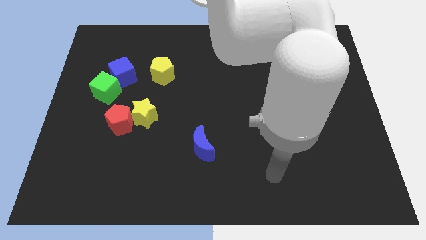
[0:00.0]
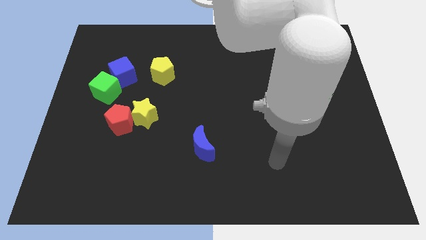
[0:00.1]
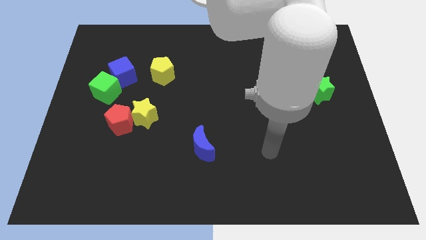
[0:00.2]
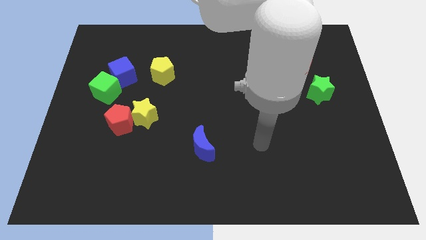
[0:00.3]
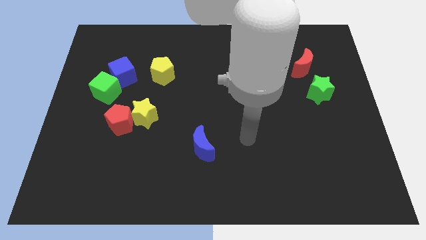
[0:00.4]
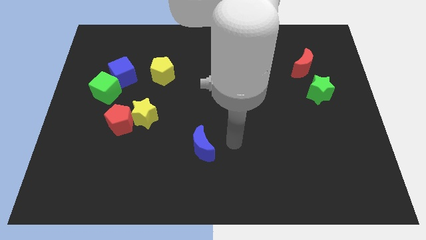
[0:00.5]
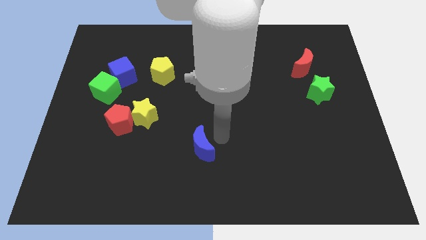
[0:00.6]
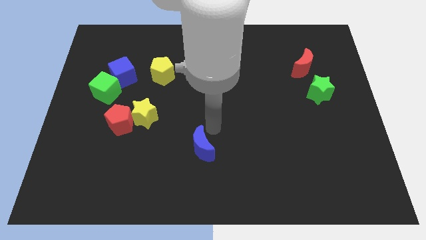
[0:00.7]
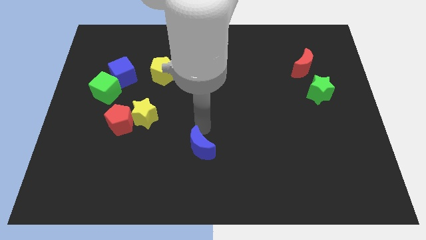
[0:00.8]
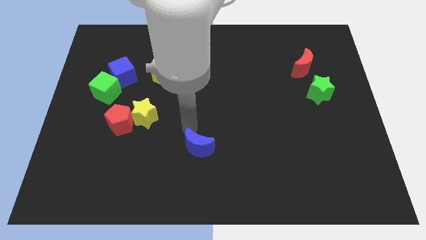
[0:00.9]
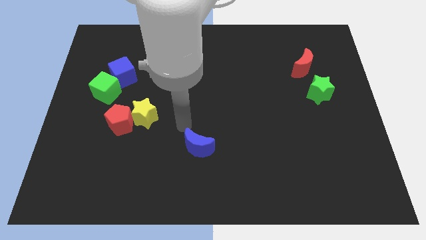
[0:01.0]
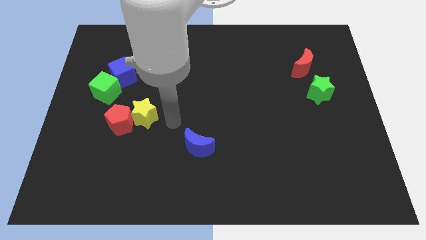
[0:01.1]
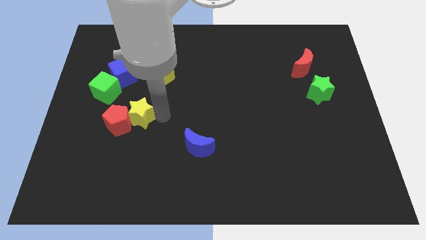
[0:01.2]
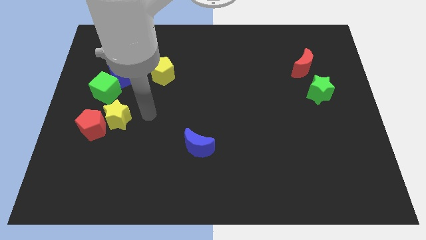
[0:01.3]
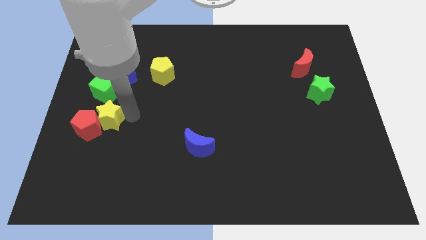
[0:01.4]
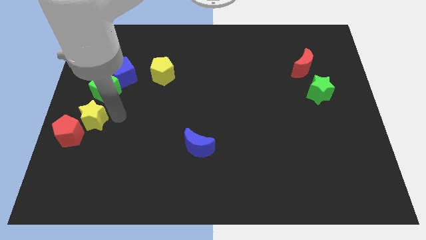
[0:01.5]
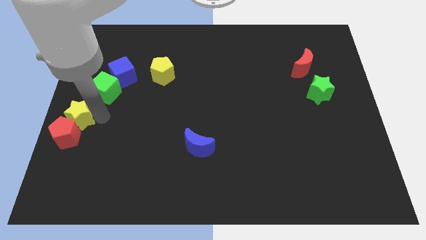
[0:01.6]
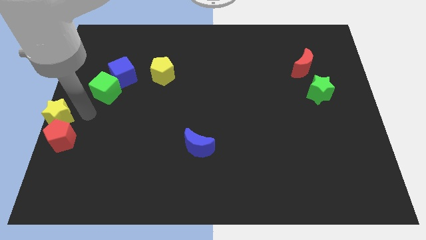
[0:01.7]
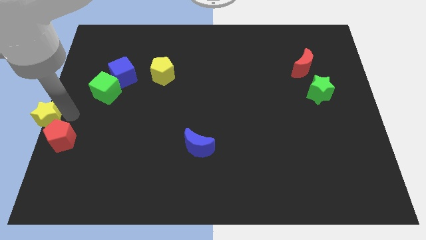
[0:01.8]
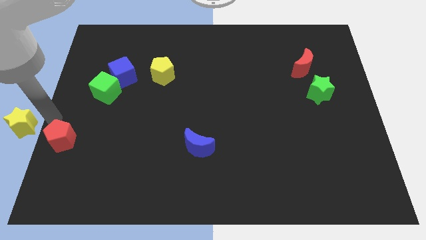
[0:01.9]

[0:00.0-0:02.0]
pull the red pentagon apart from the yellow star

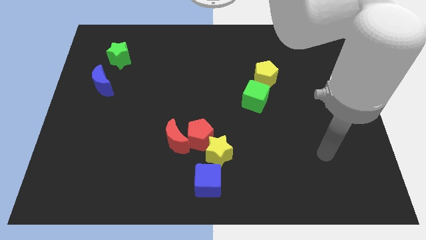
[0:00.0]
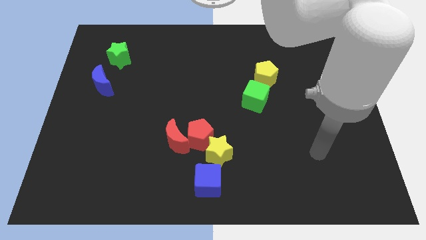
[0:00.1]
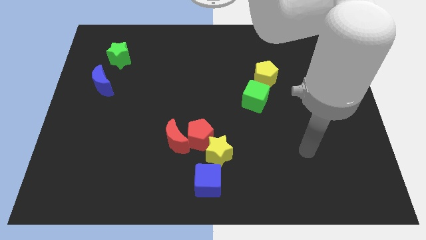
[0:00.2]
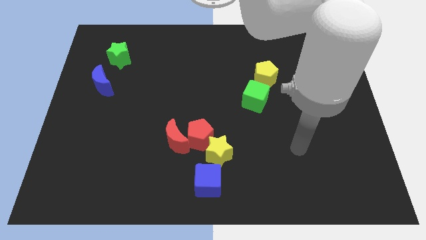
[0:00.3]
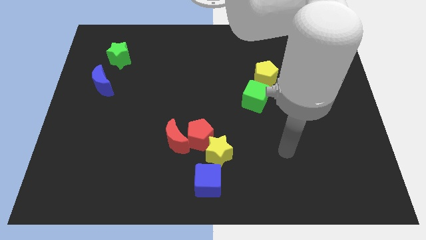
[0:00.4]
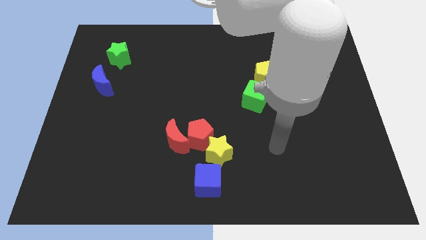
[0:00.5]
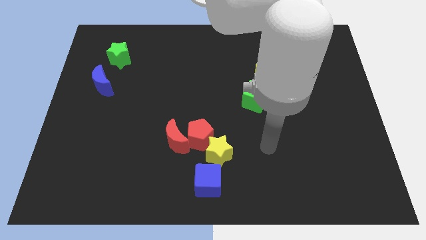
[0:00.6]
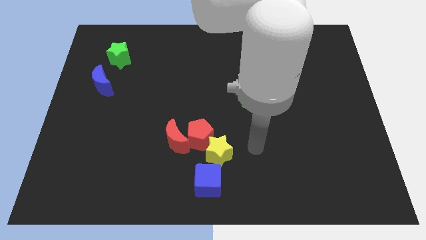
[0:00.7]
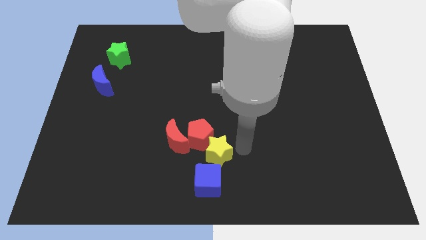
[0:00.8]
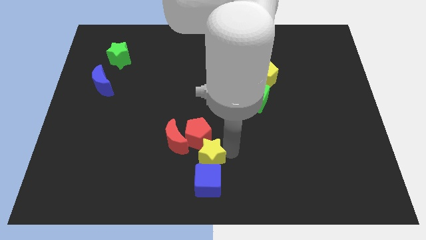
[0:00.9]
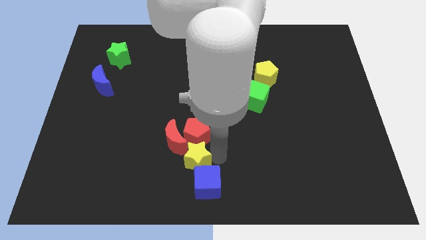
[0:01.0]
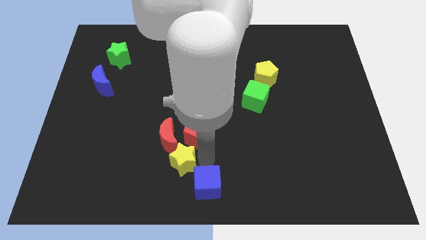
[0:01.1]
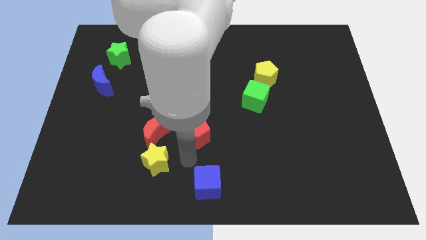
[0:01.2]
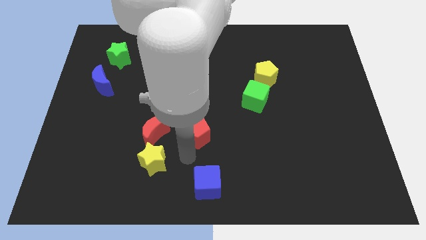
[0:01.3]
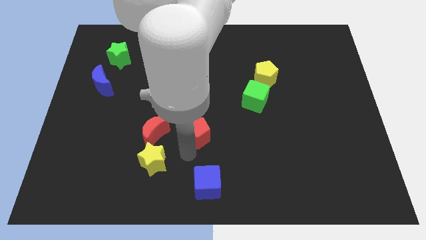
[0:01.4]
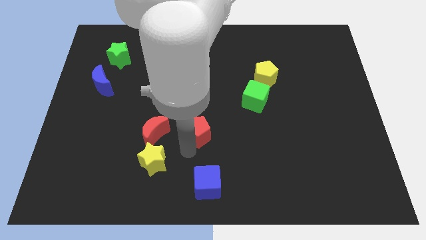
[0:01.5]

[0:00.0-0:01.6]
pull the red pentagon apart from the red moon and yellow star

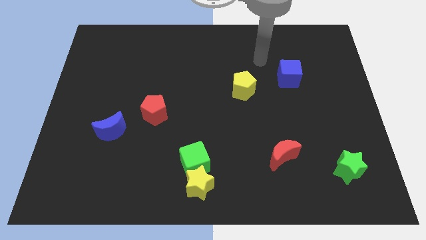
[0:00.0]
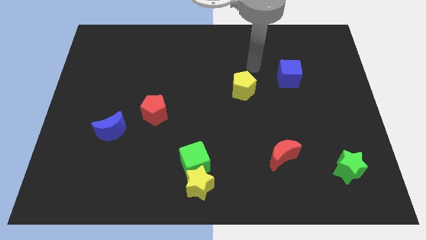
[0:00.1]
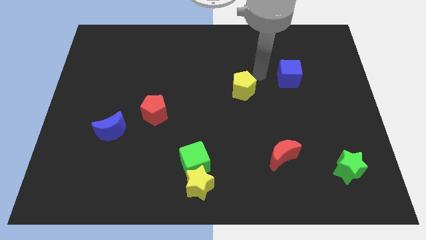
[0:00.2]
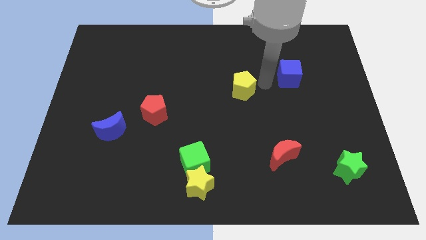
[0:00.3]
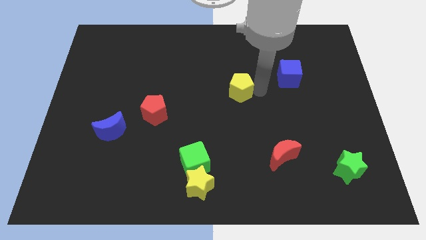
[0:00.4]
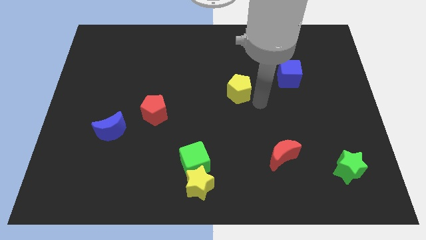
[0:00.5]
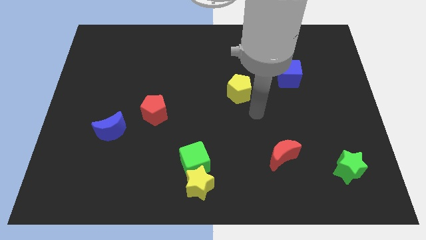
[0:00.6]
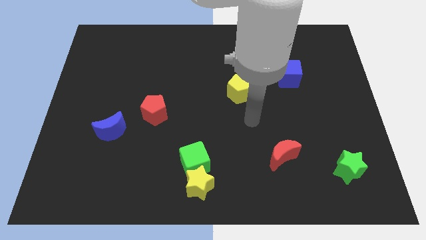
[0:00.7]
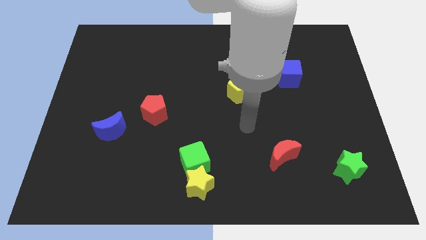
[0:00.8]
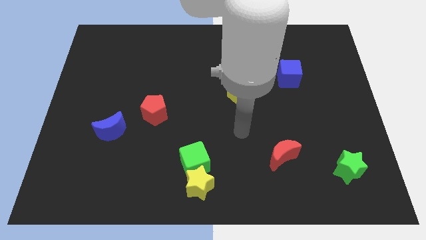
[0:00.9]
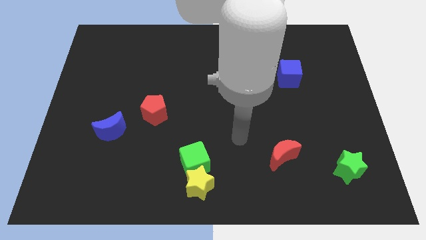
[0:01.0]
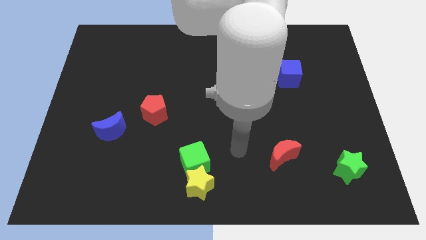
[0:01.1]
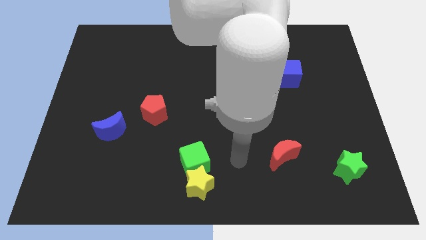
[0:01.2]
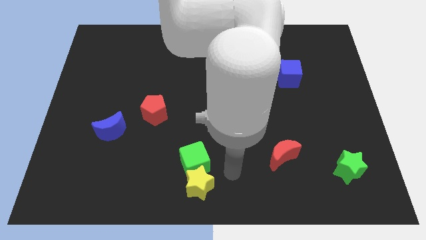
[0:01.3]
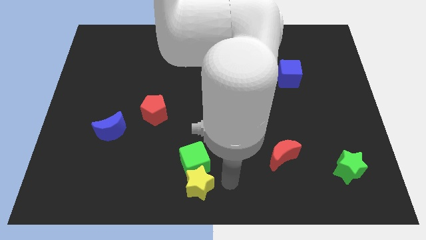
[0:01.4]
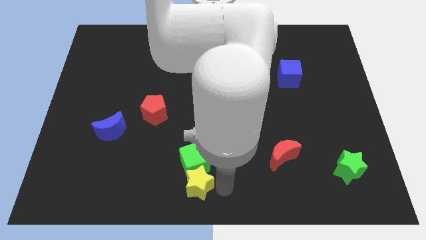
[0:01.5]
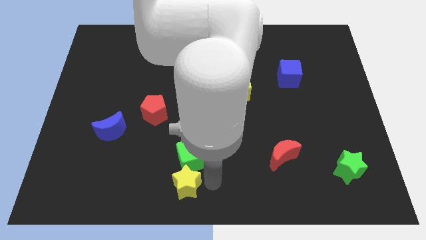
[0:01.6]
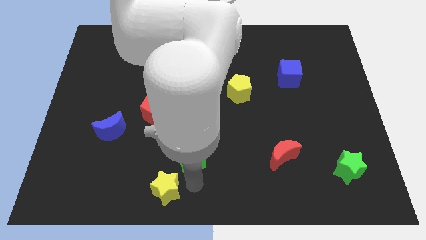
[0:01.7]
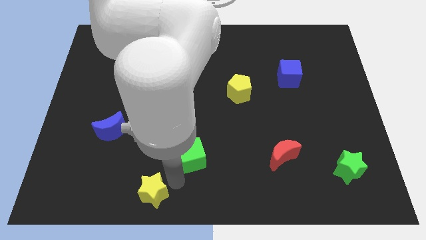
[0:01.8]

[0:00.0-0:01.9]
move the green cube away from the yellow star

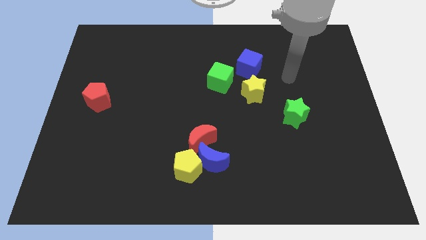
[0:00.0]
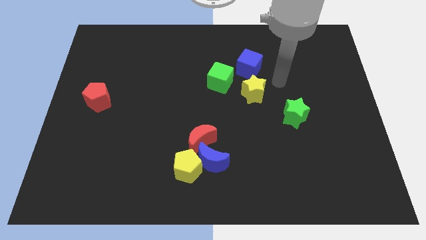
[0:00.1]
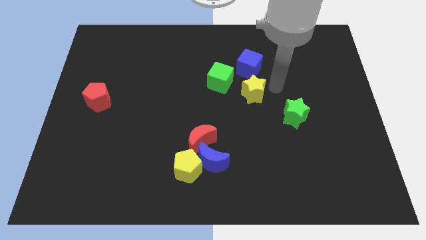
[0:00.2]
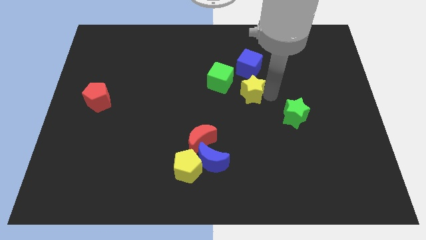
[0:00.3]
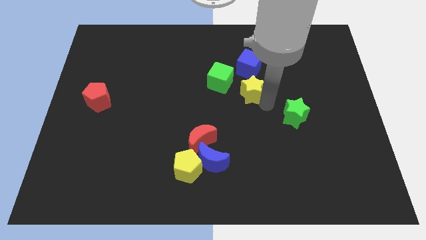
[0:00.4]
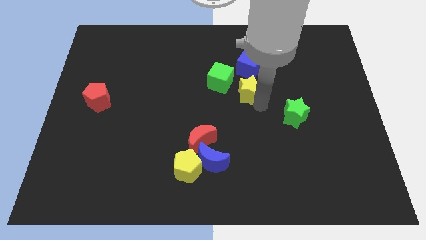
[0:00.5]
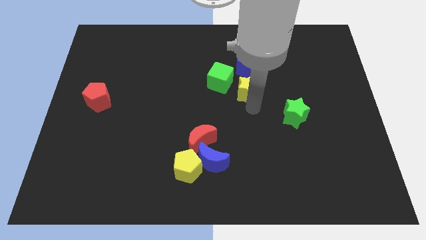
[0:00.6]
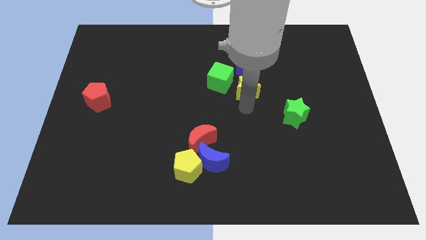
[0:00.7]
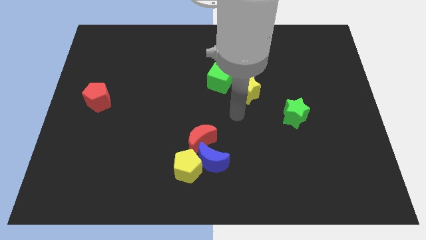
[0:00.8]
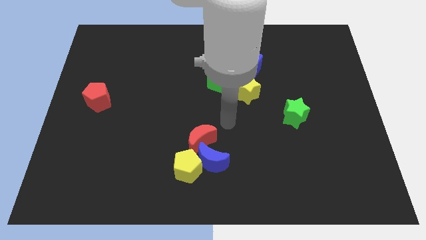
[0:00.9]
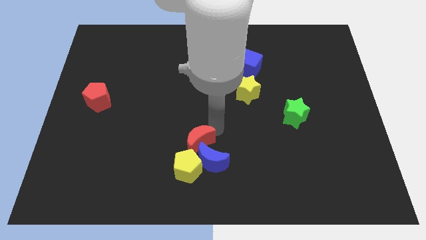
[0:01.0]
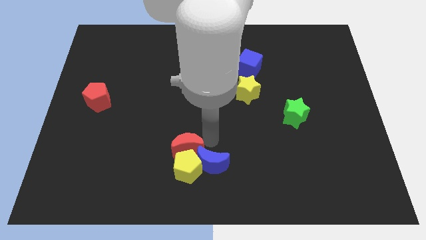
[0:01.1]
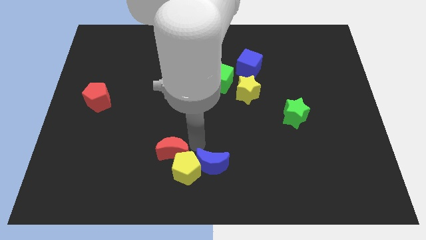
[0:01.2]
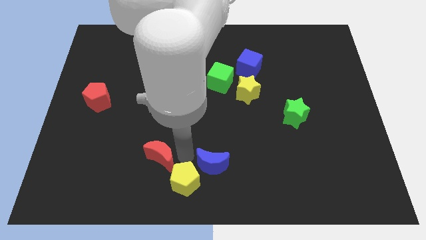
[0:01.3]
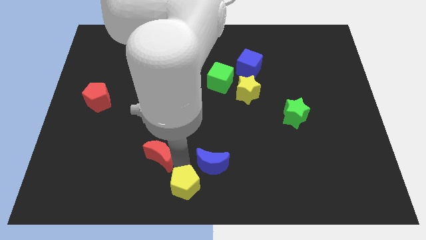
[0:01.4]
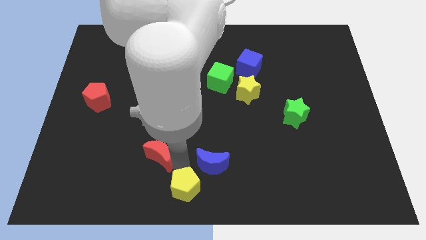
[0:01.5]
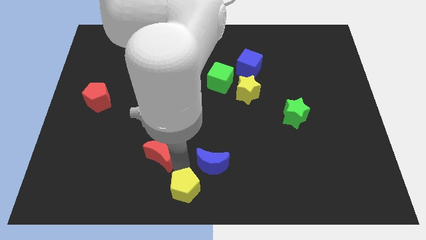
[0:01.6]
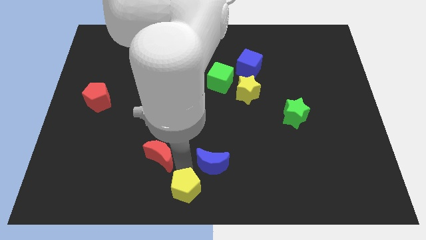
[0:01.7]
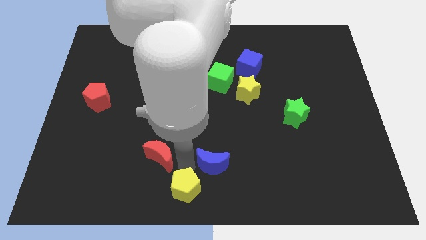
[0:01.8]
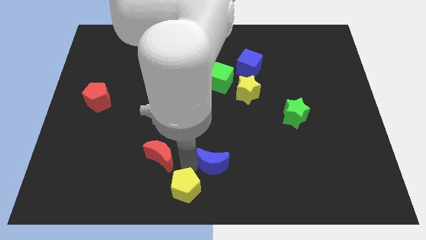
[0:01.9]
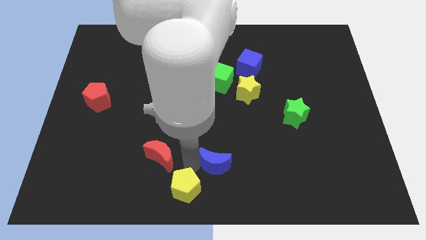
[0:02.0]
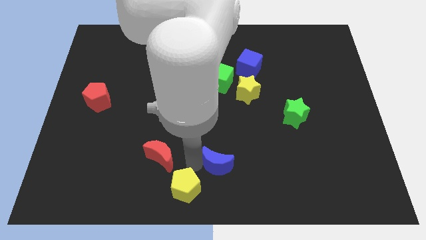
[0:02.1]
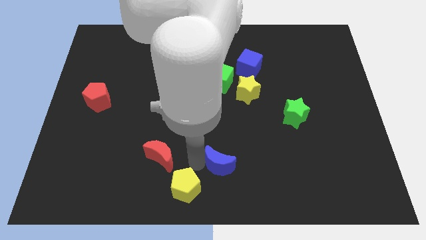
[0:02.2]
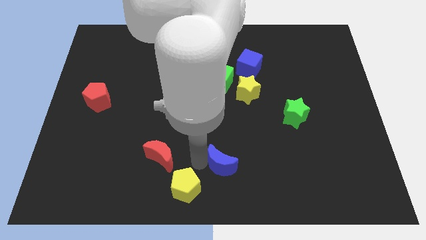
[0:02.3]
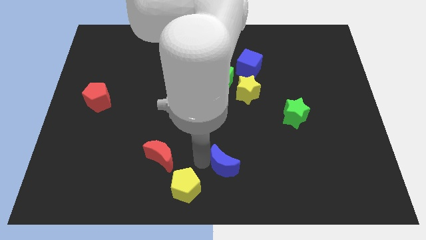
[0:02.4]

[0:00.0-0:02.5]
separate the blue moon from the yellow pentagon and red moon

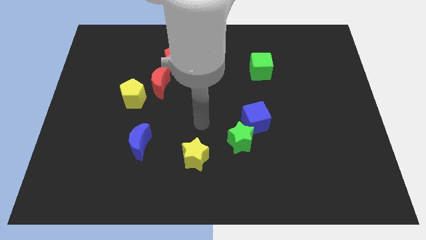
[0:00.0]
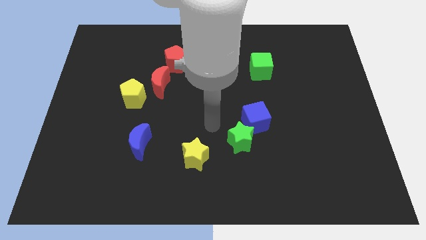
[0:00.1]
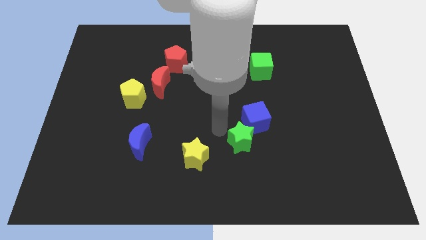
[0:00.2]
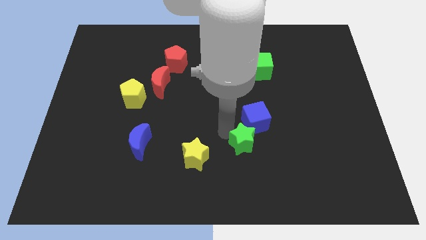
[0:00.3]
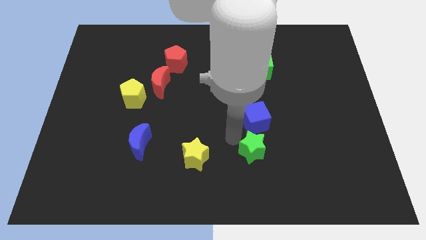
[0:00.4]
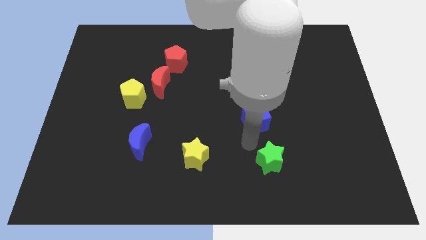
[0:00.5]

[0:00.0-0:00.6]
pull the blue cube apart from the green star

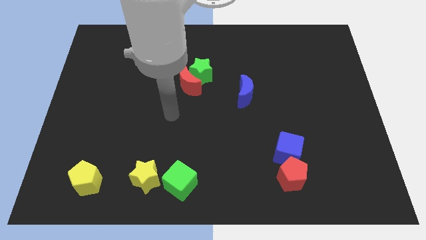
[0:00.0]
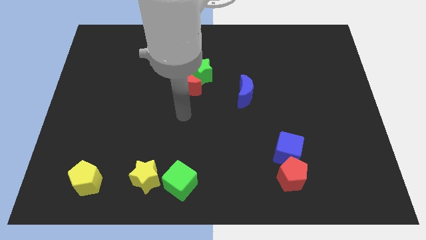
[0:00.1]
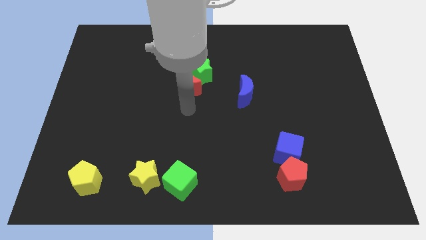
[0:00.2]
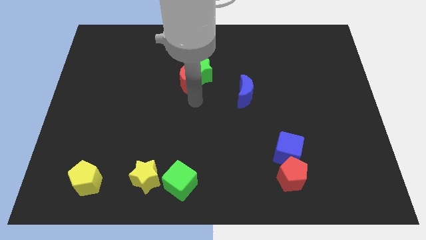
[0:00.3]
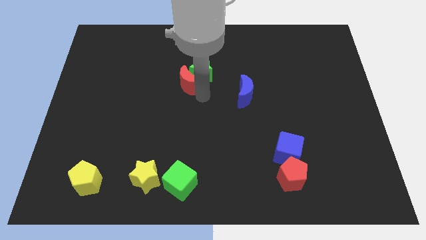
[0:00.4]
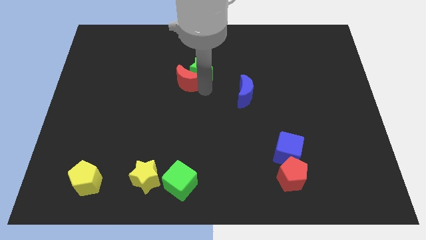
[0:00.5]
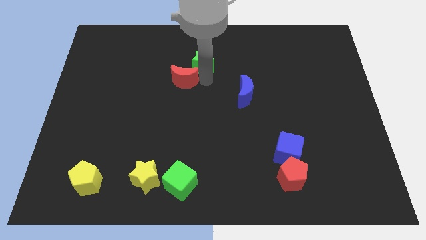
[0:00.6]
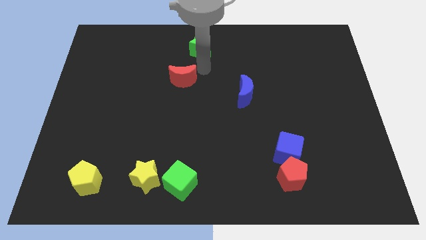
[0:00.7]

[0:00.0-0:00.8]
pull the red moon apart from the green star

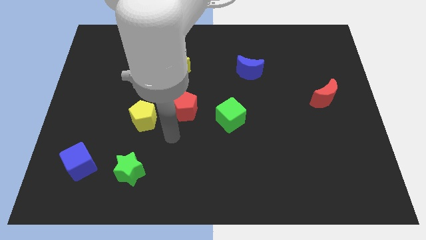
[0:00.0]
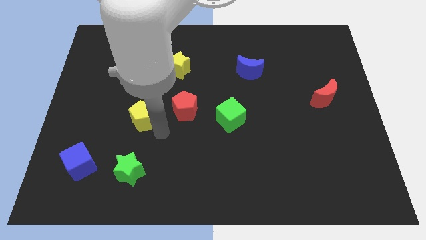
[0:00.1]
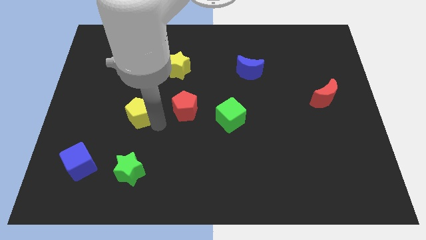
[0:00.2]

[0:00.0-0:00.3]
separate the red pentagon from the yellow pentagon
